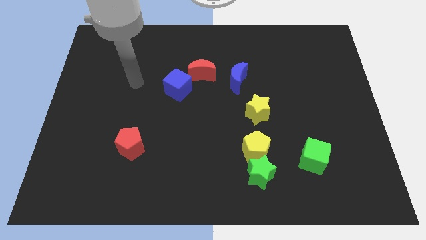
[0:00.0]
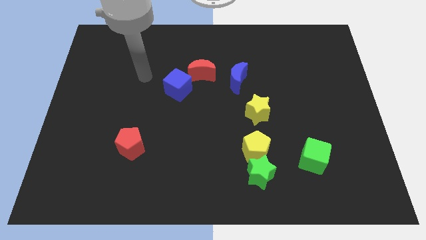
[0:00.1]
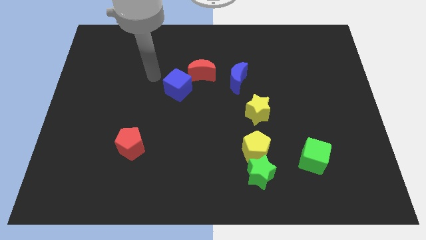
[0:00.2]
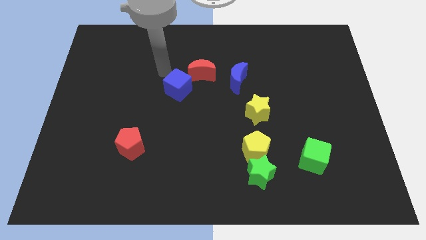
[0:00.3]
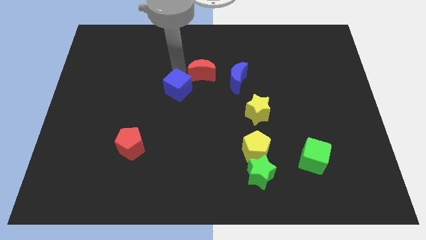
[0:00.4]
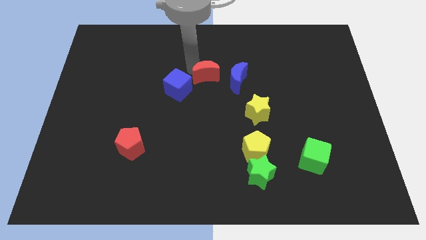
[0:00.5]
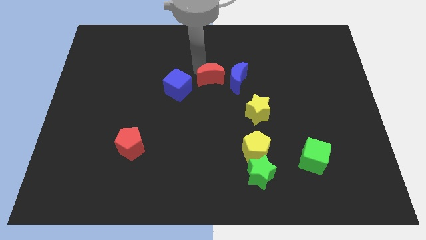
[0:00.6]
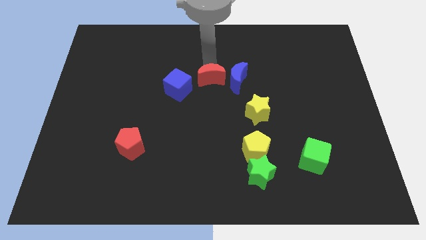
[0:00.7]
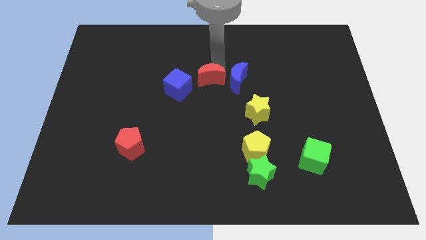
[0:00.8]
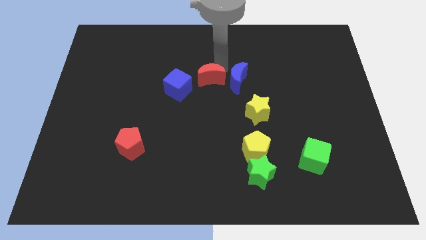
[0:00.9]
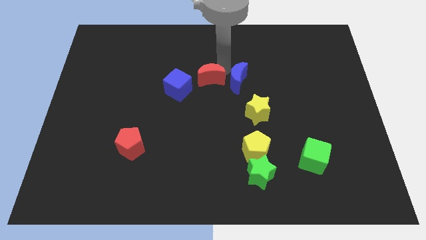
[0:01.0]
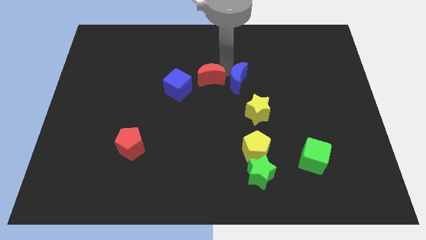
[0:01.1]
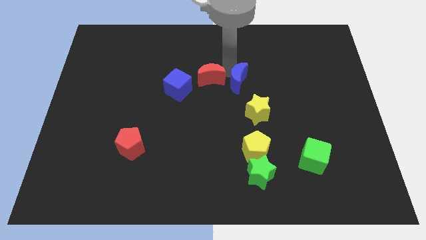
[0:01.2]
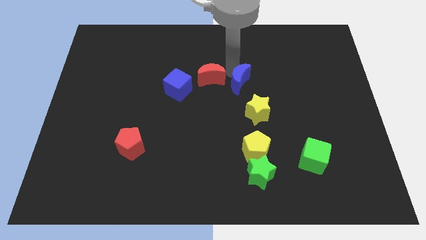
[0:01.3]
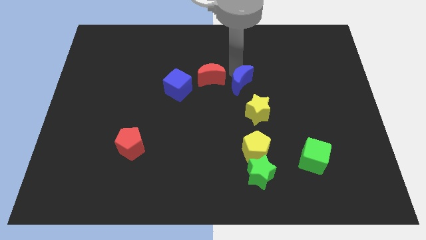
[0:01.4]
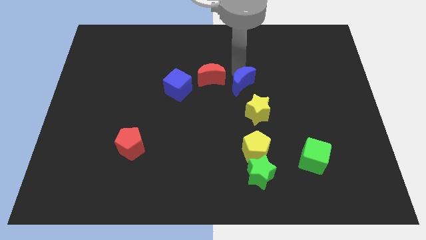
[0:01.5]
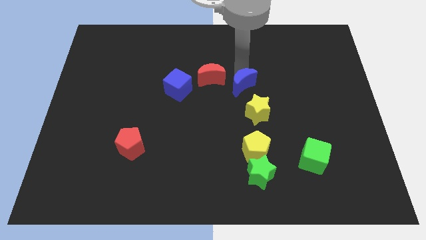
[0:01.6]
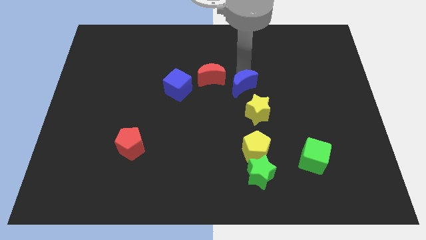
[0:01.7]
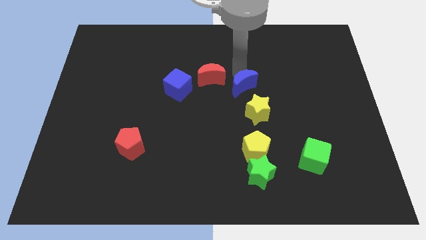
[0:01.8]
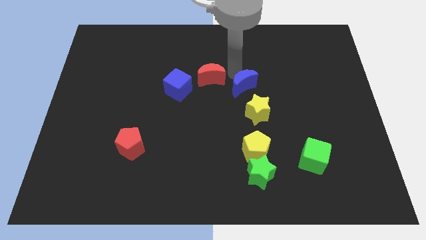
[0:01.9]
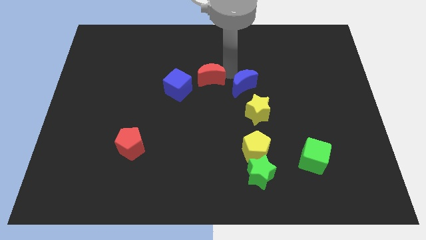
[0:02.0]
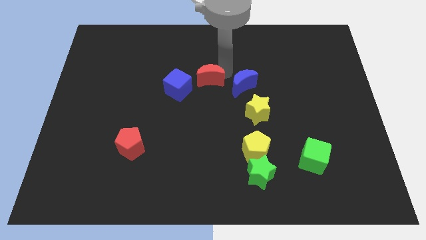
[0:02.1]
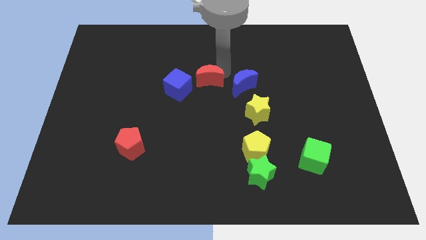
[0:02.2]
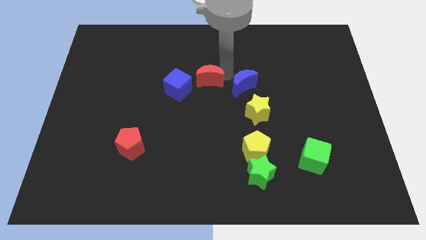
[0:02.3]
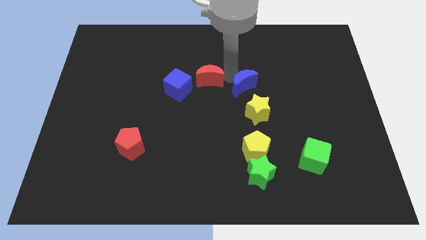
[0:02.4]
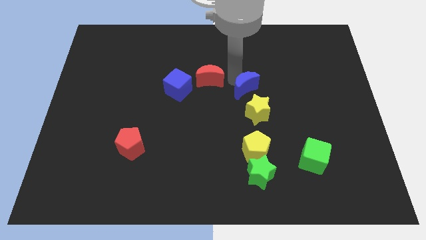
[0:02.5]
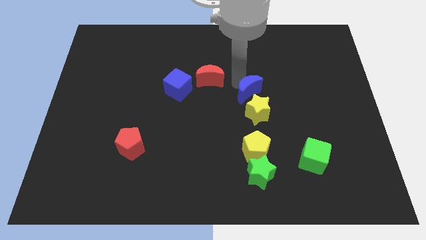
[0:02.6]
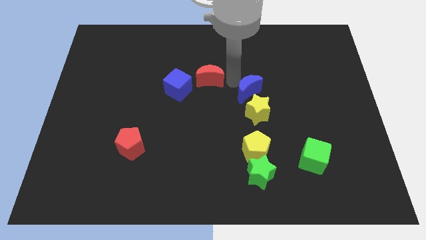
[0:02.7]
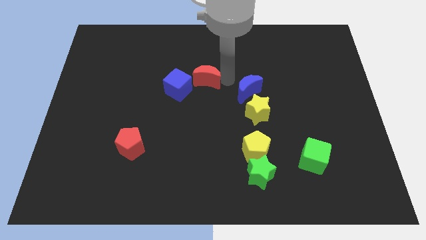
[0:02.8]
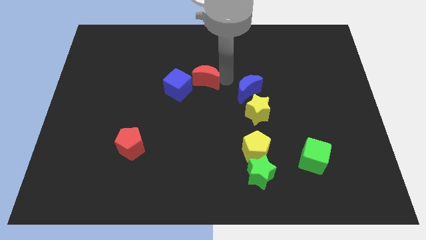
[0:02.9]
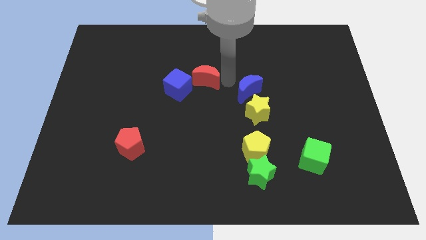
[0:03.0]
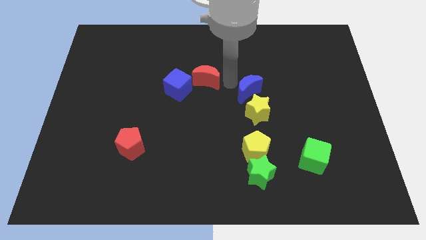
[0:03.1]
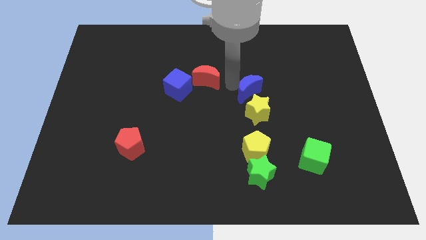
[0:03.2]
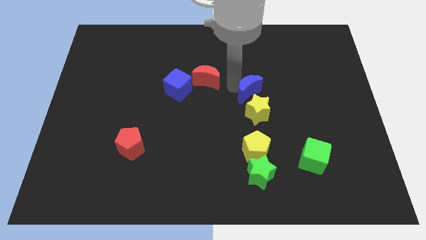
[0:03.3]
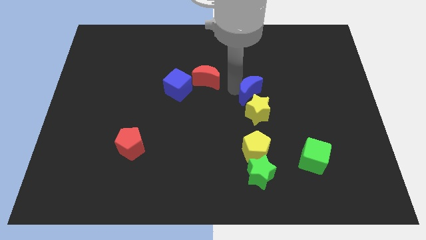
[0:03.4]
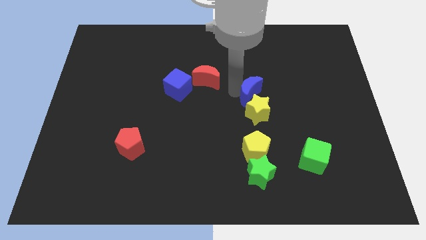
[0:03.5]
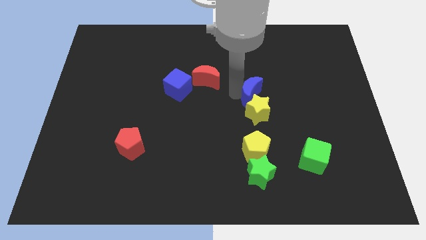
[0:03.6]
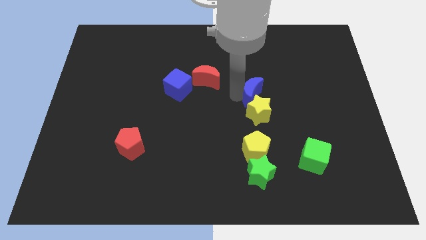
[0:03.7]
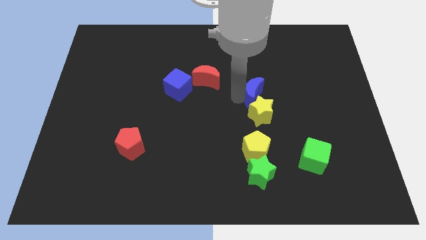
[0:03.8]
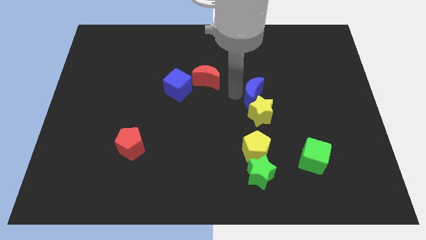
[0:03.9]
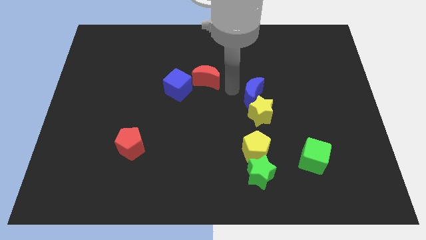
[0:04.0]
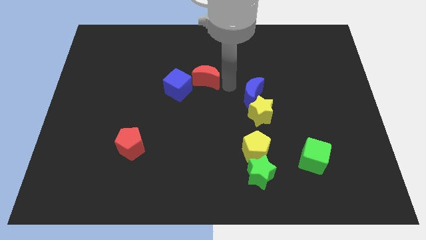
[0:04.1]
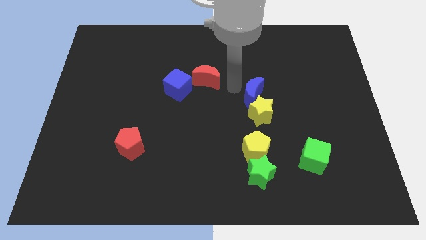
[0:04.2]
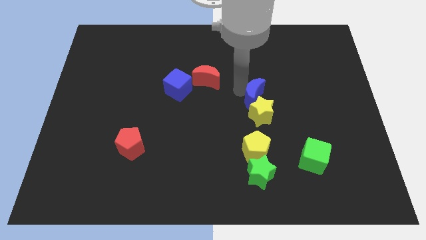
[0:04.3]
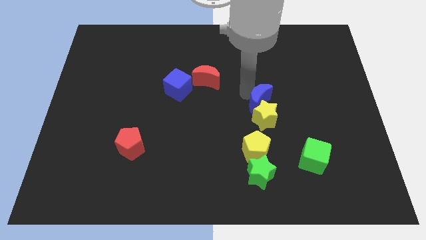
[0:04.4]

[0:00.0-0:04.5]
slightly slide the blue moon down and then to the right

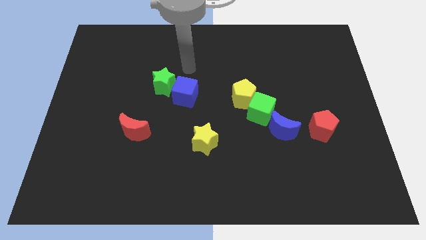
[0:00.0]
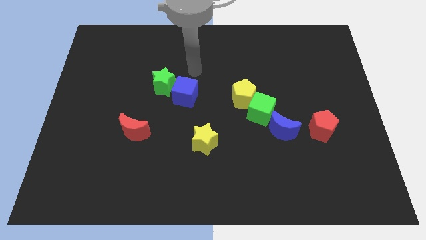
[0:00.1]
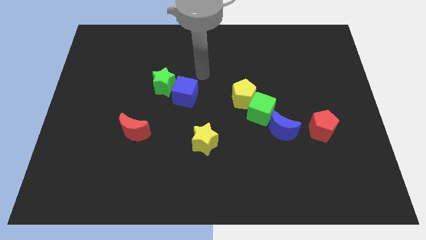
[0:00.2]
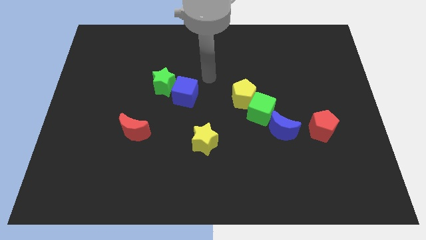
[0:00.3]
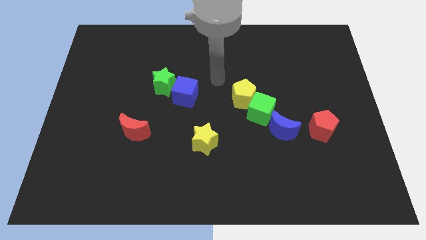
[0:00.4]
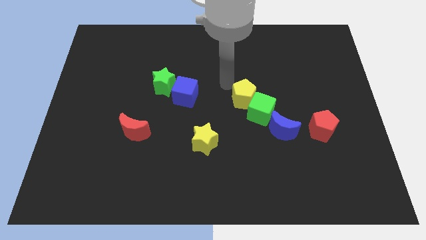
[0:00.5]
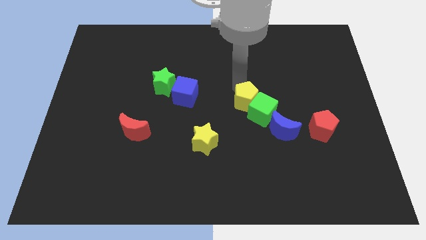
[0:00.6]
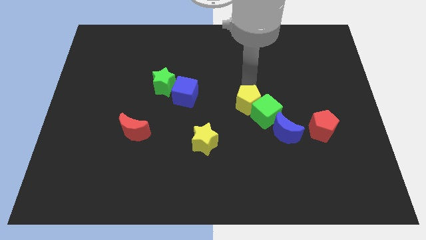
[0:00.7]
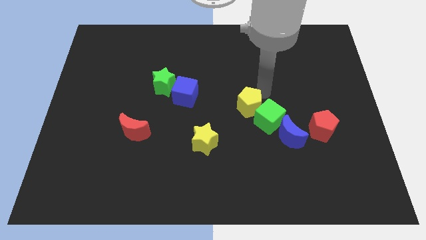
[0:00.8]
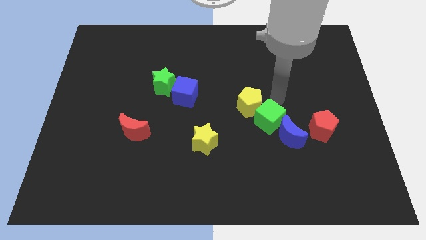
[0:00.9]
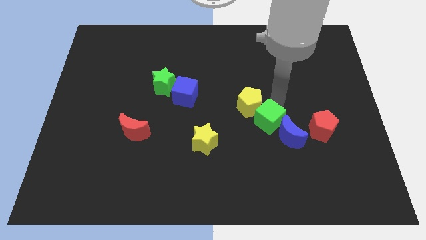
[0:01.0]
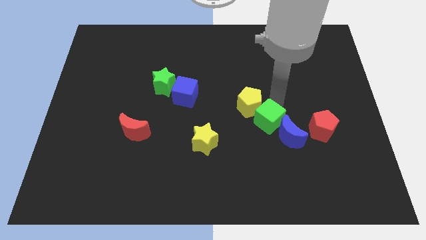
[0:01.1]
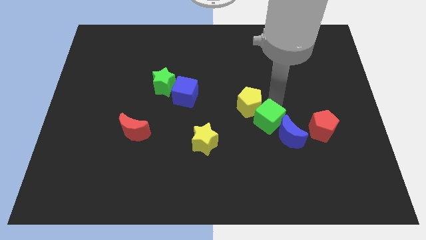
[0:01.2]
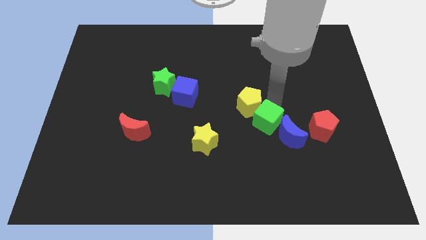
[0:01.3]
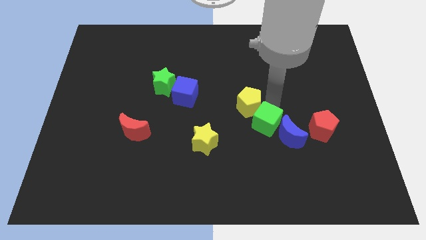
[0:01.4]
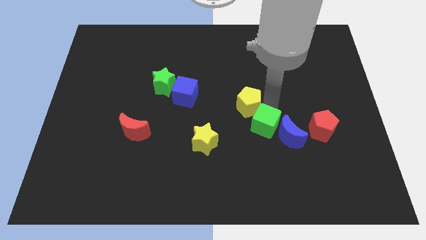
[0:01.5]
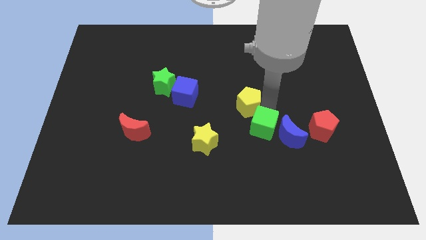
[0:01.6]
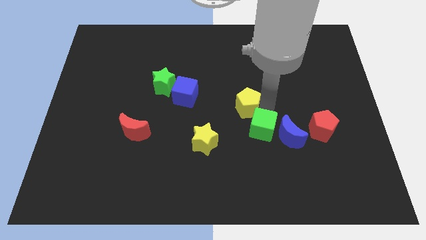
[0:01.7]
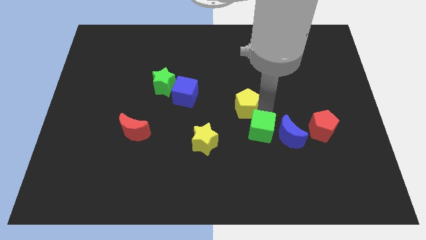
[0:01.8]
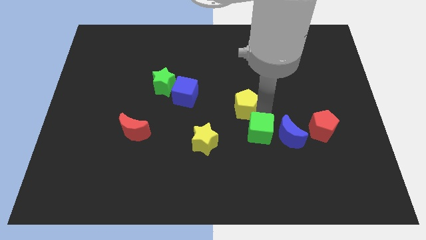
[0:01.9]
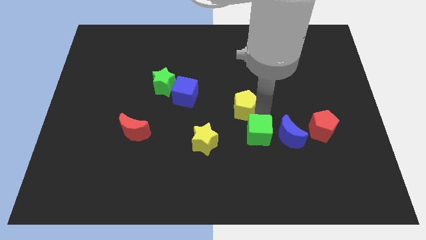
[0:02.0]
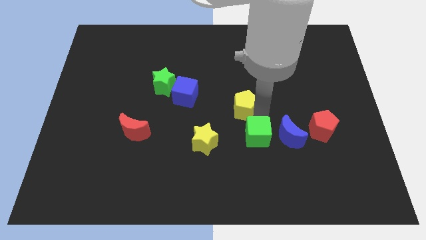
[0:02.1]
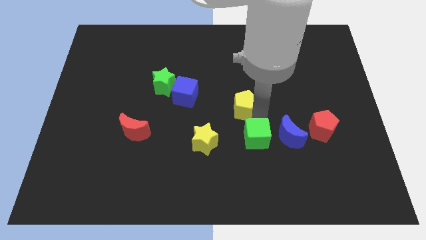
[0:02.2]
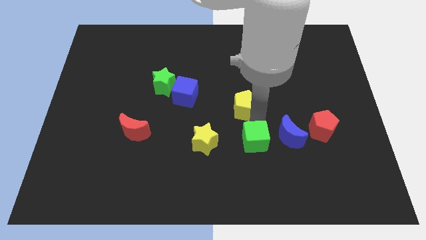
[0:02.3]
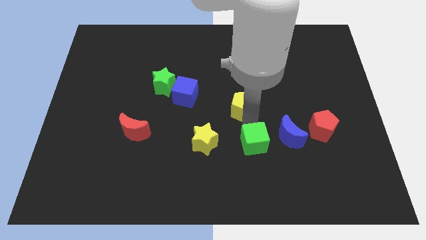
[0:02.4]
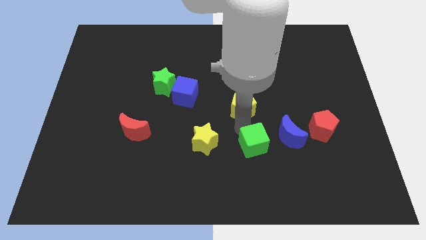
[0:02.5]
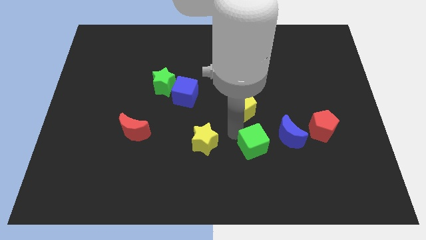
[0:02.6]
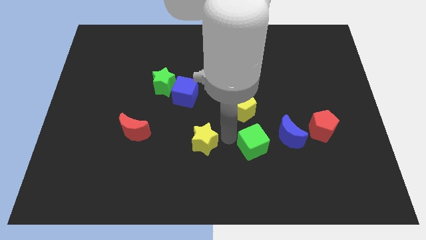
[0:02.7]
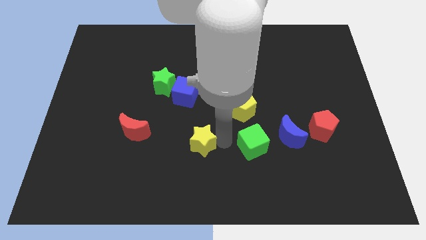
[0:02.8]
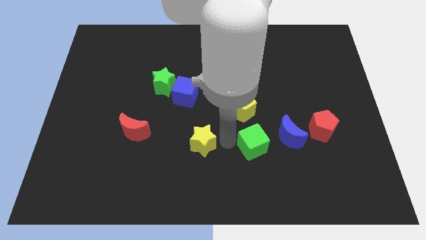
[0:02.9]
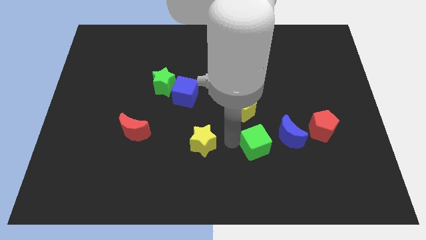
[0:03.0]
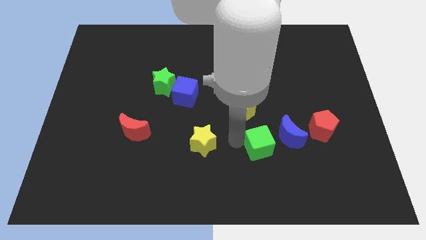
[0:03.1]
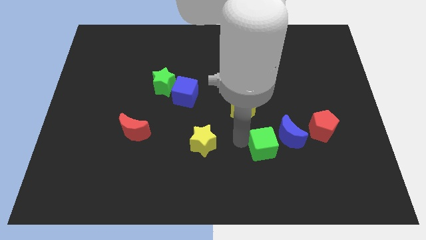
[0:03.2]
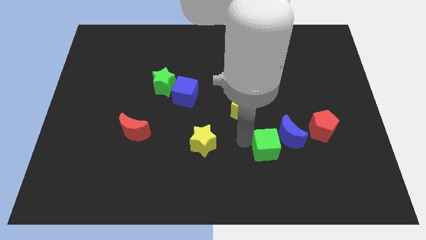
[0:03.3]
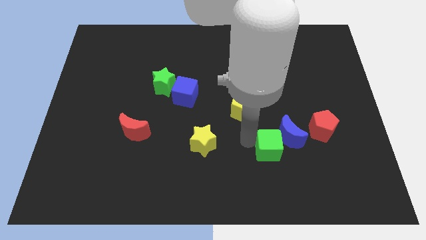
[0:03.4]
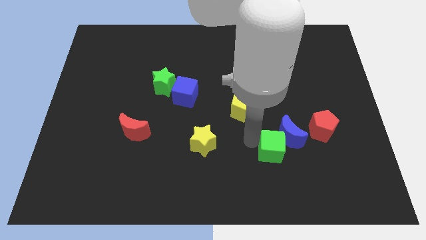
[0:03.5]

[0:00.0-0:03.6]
slide the green cube downwards and then to the right a bit
